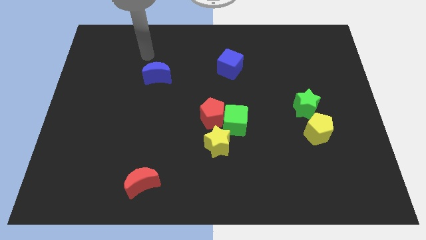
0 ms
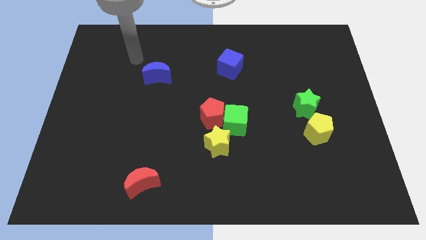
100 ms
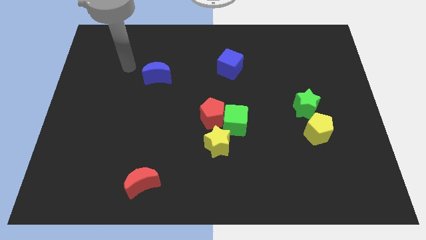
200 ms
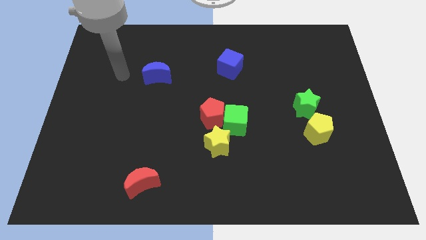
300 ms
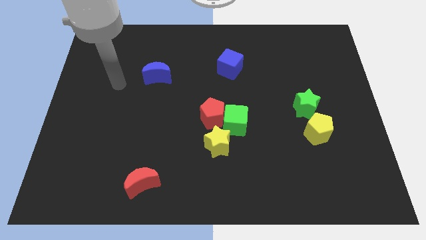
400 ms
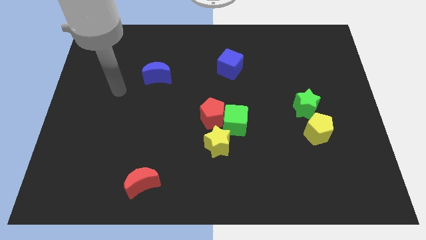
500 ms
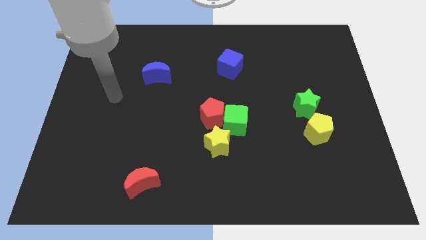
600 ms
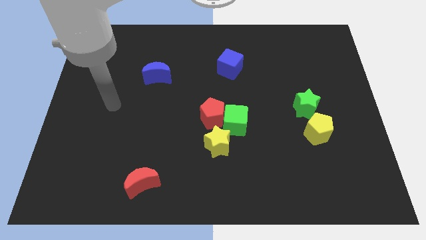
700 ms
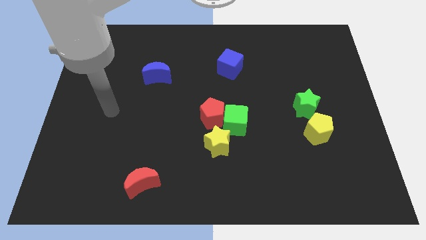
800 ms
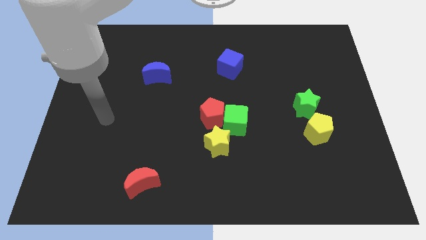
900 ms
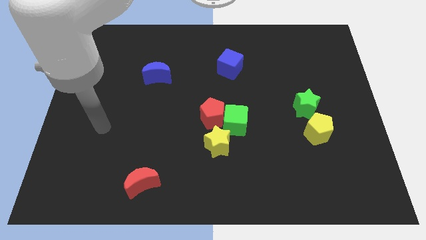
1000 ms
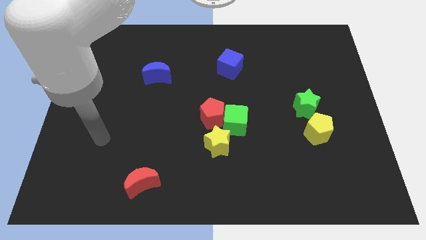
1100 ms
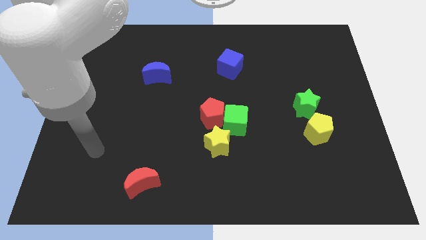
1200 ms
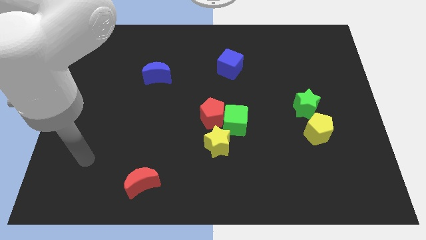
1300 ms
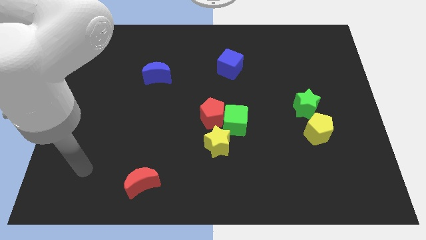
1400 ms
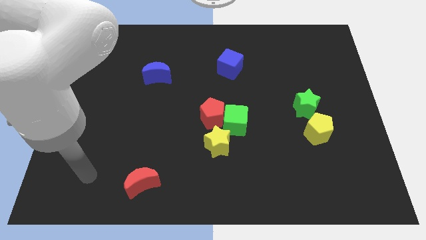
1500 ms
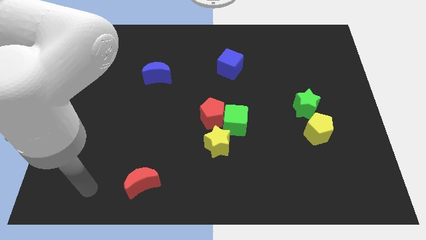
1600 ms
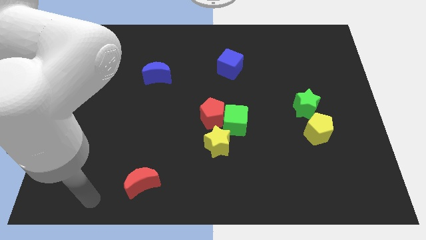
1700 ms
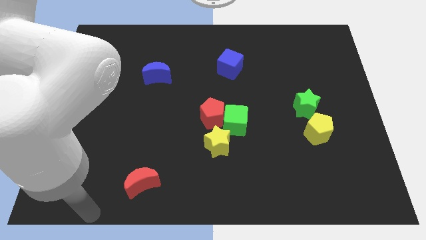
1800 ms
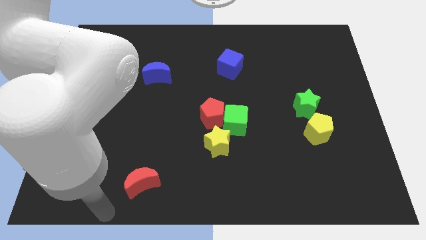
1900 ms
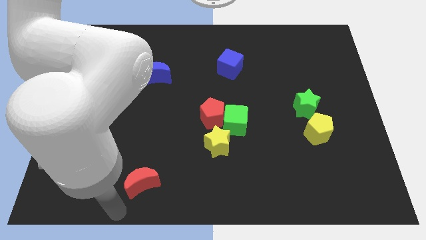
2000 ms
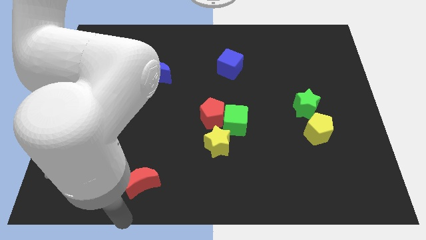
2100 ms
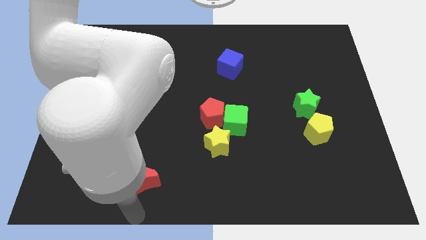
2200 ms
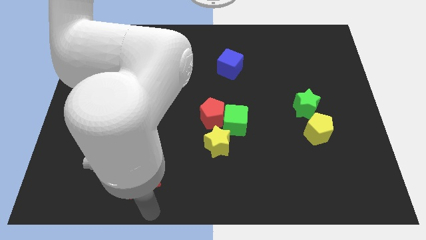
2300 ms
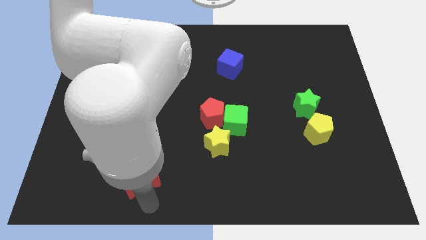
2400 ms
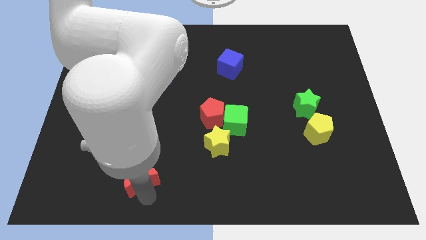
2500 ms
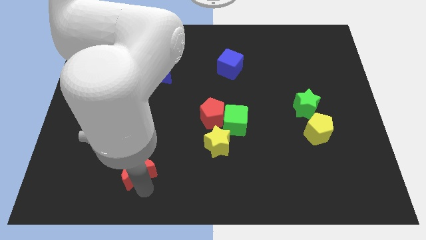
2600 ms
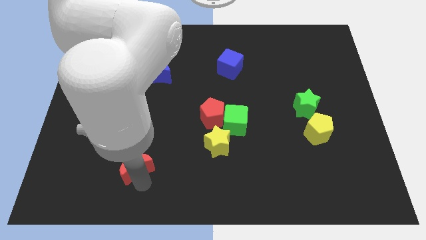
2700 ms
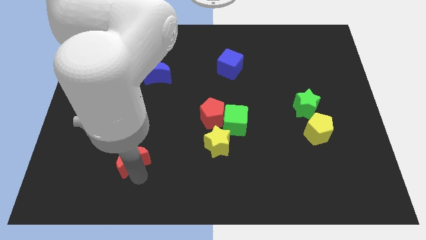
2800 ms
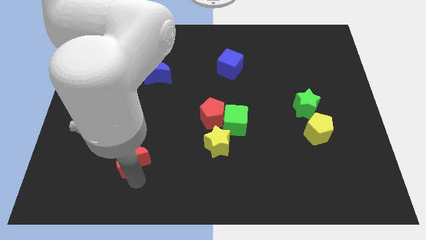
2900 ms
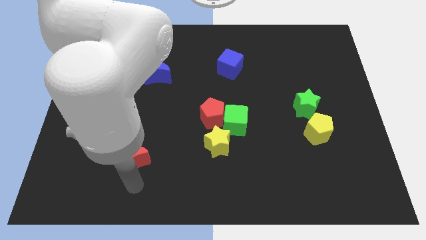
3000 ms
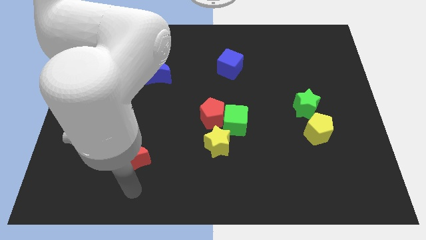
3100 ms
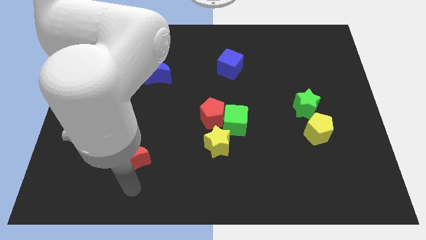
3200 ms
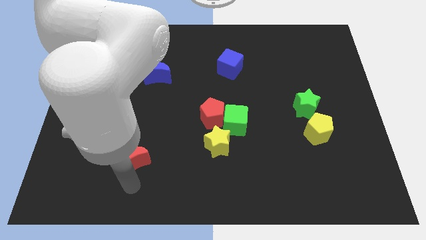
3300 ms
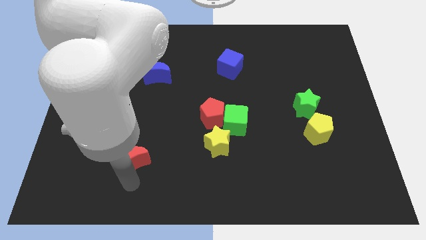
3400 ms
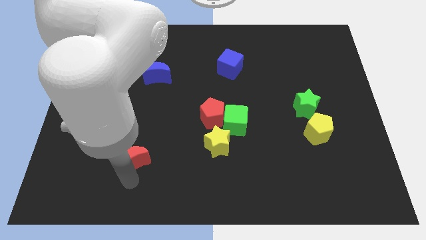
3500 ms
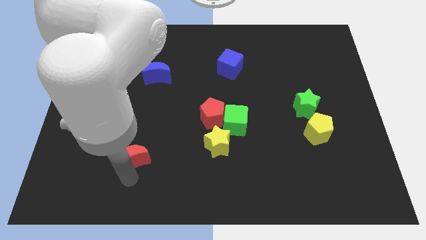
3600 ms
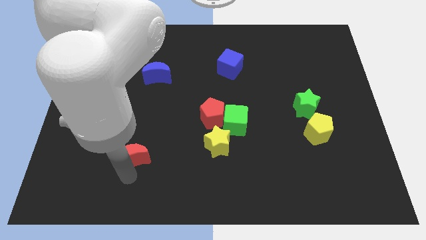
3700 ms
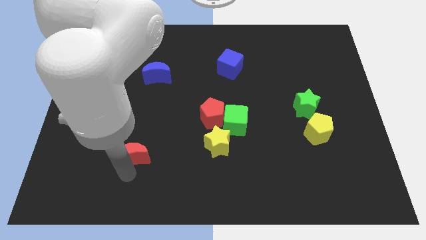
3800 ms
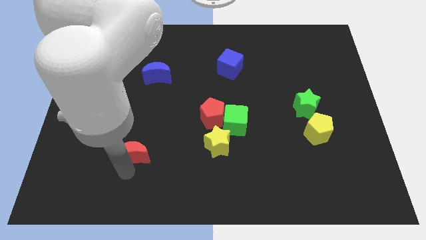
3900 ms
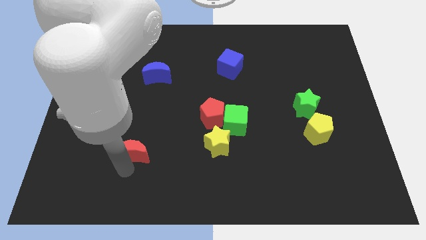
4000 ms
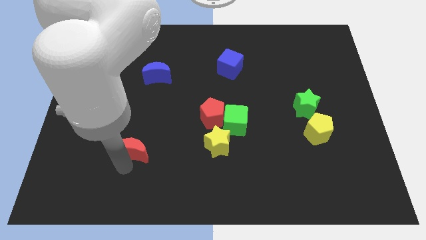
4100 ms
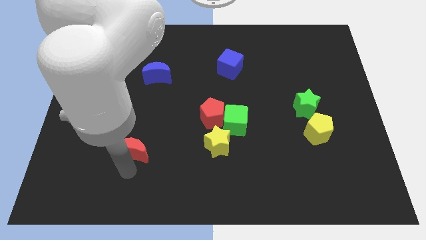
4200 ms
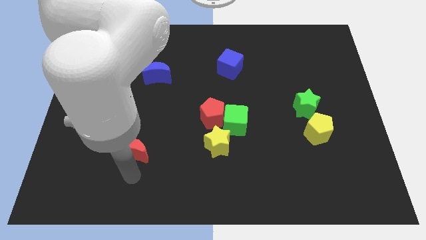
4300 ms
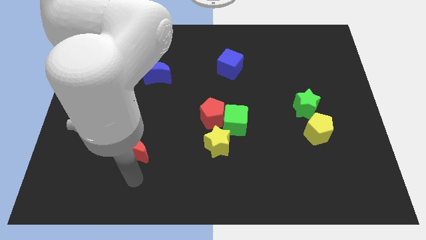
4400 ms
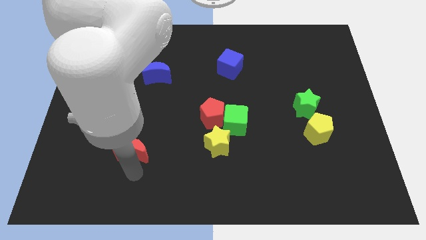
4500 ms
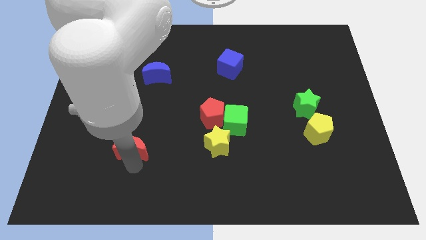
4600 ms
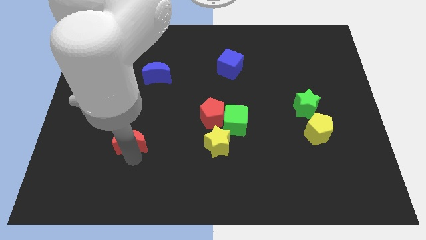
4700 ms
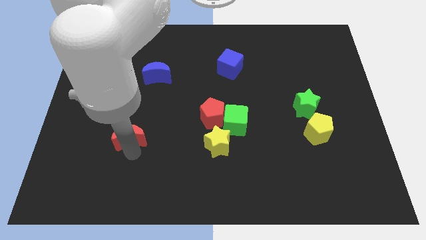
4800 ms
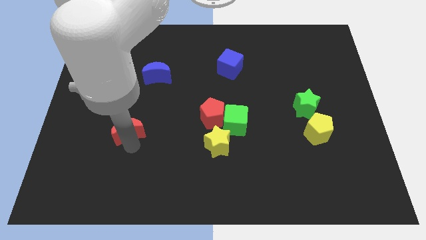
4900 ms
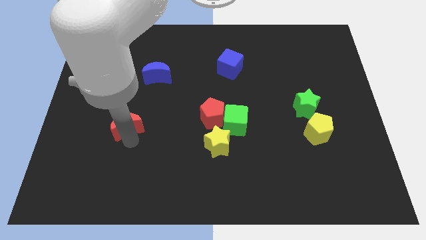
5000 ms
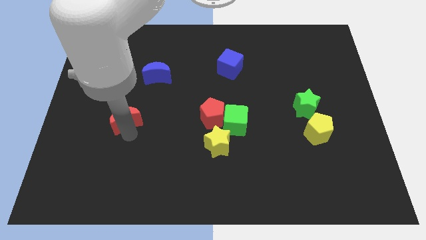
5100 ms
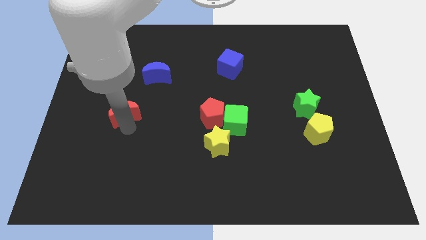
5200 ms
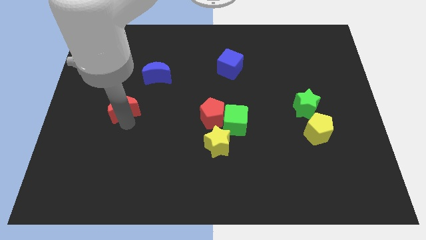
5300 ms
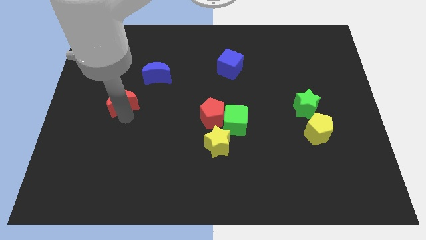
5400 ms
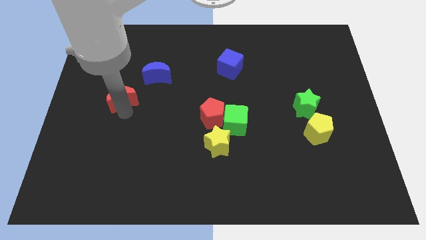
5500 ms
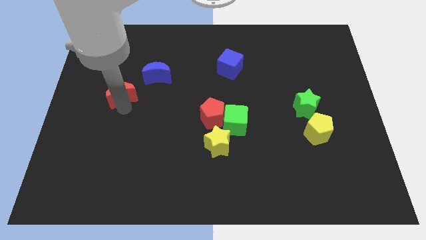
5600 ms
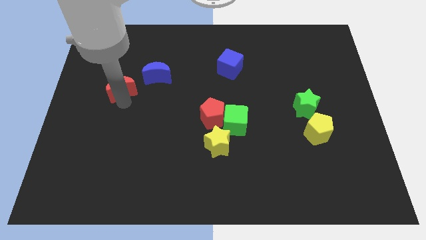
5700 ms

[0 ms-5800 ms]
put the red moon left of the blue moon

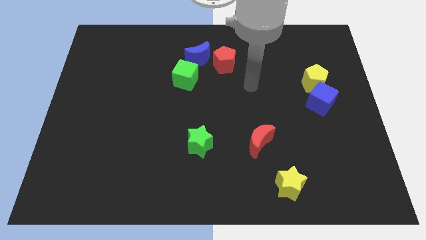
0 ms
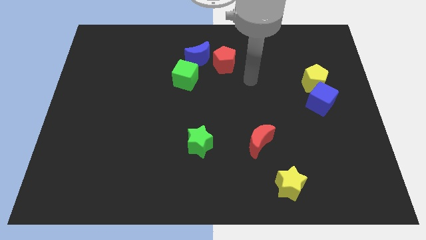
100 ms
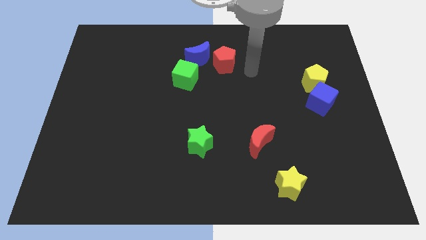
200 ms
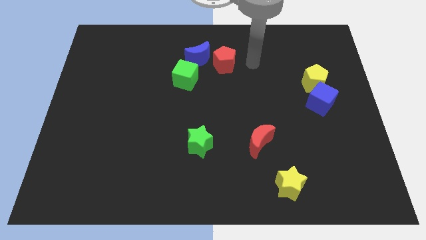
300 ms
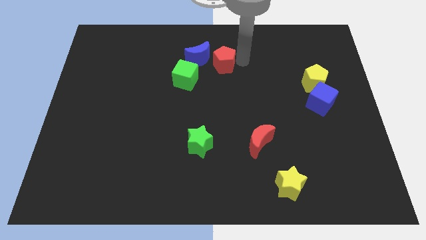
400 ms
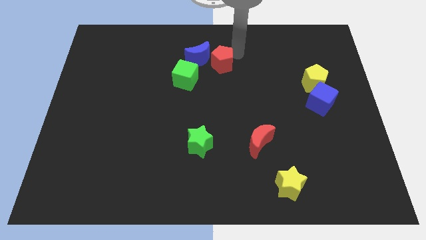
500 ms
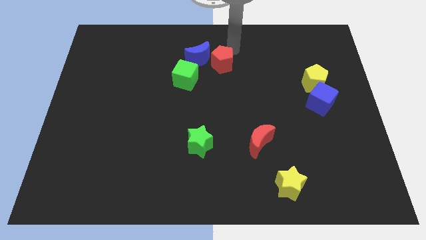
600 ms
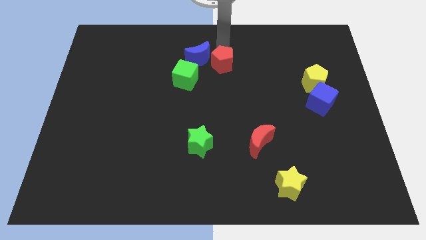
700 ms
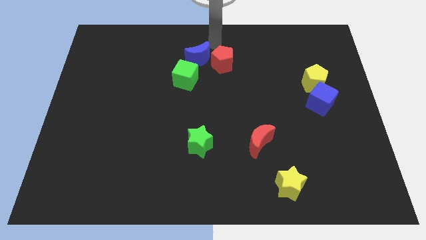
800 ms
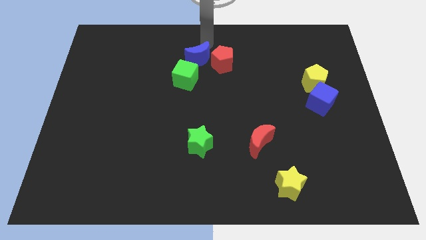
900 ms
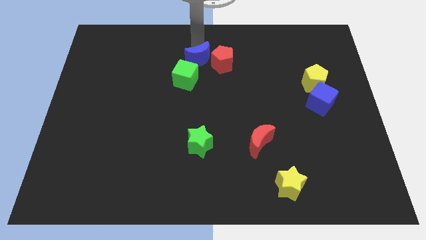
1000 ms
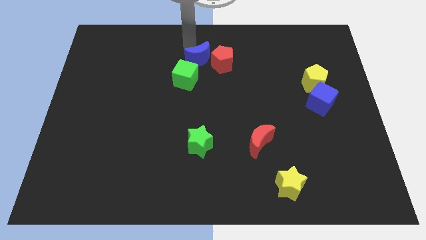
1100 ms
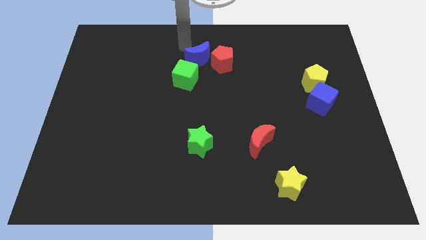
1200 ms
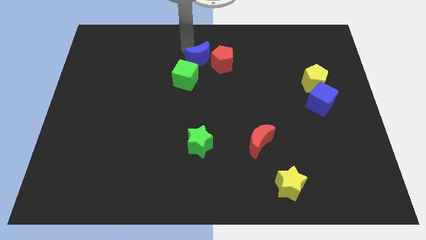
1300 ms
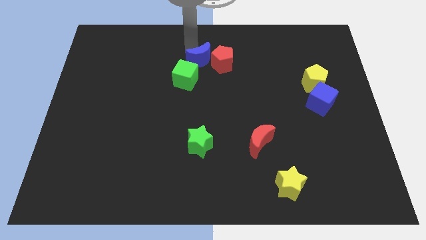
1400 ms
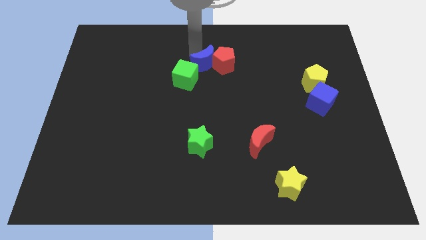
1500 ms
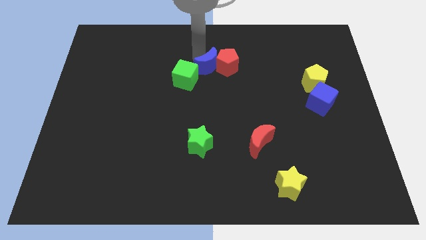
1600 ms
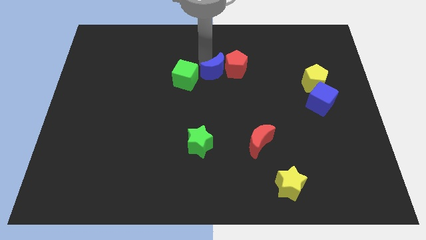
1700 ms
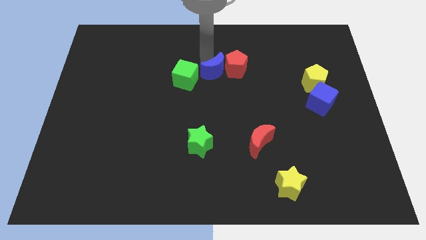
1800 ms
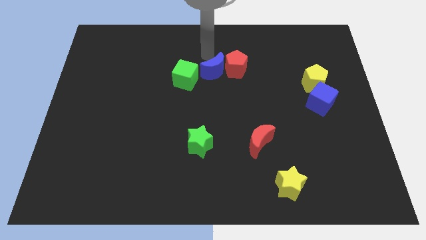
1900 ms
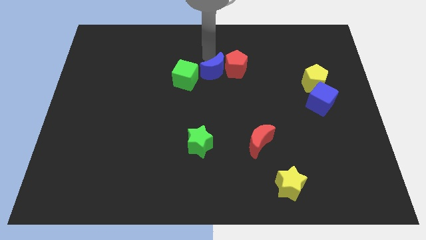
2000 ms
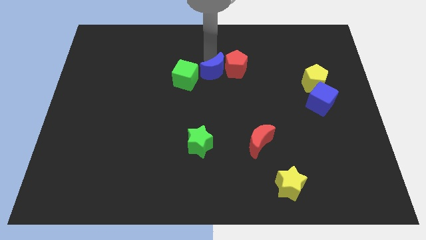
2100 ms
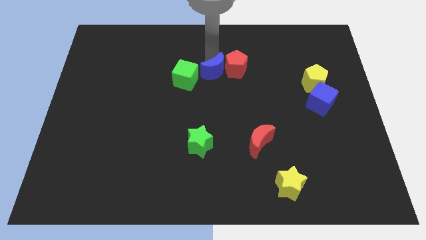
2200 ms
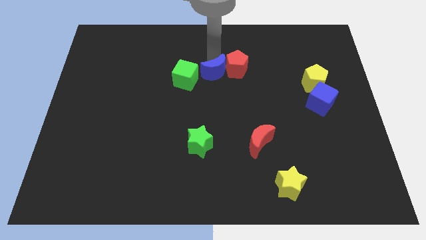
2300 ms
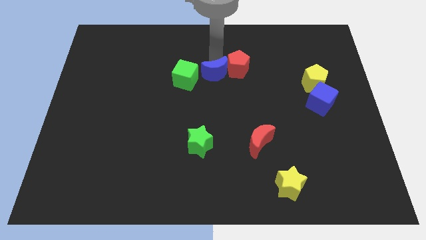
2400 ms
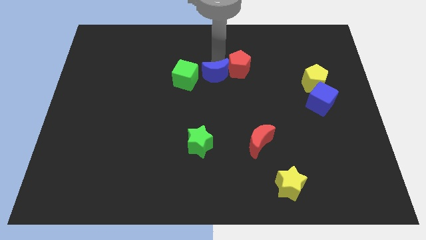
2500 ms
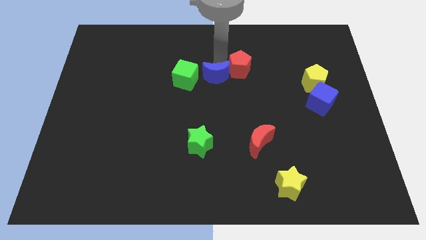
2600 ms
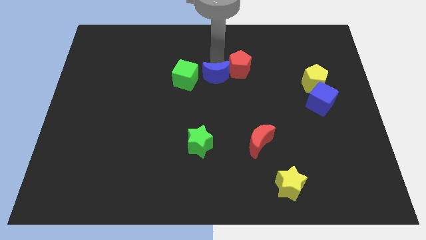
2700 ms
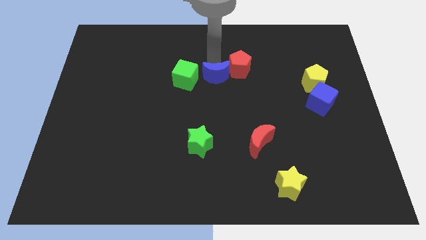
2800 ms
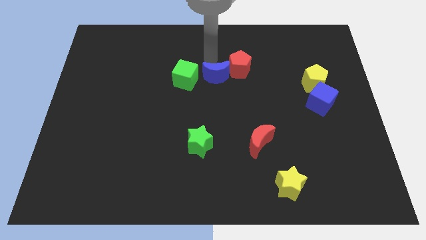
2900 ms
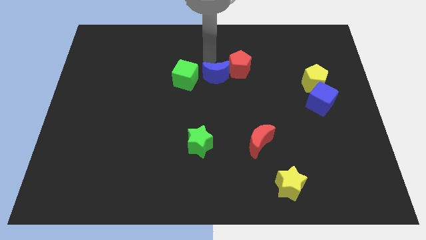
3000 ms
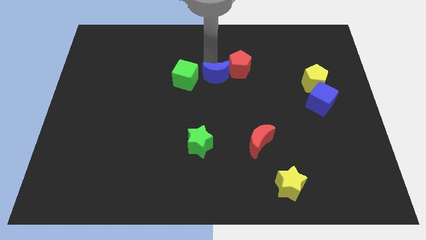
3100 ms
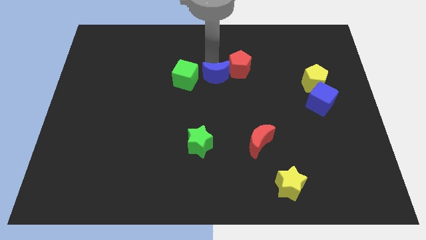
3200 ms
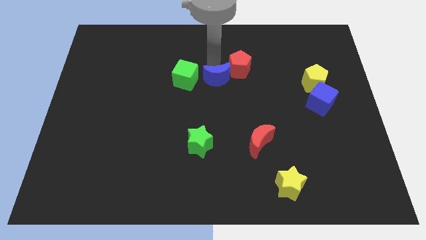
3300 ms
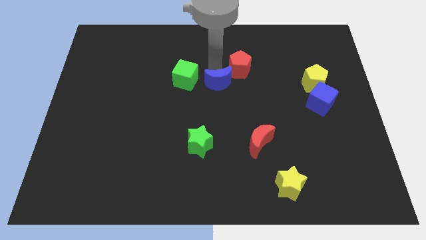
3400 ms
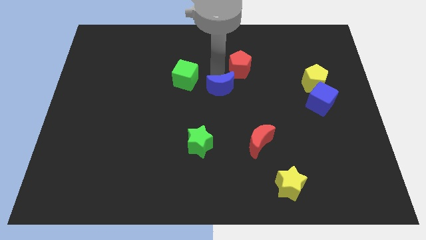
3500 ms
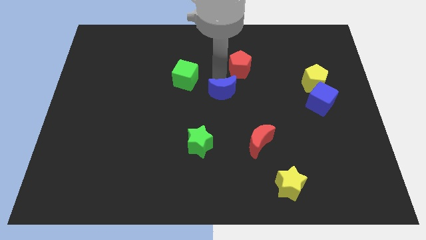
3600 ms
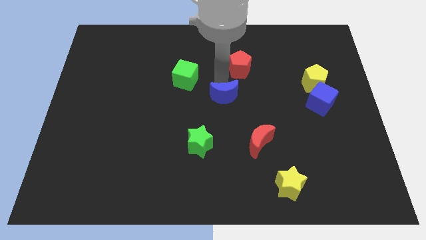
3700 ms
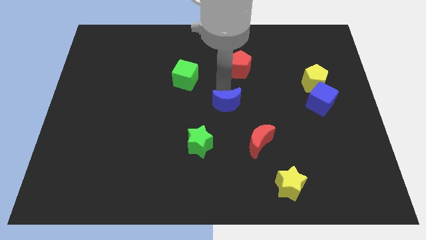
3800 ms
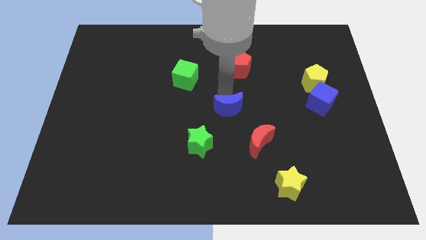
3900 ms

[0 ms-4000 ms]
slide the blue moon to the top left side of the red moon
